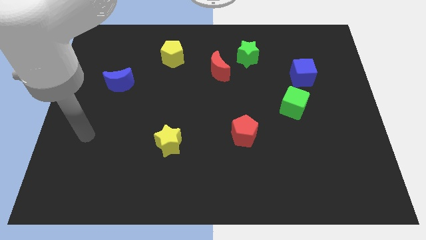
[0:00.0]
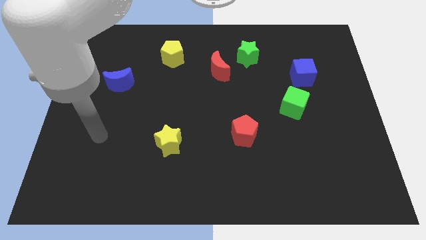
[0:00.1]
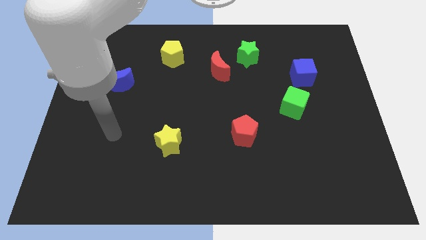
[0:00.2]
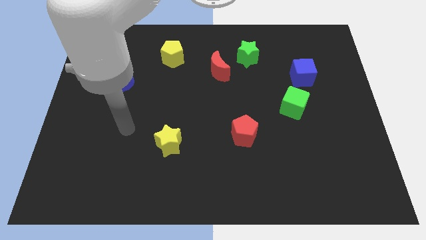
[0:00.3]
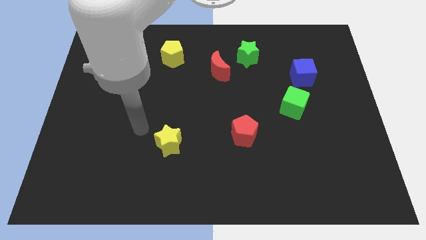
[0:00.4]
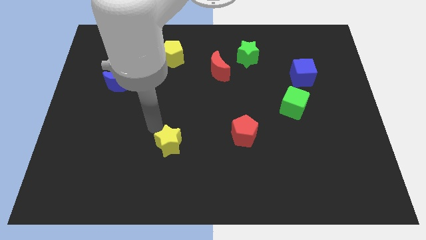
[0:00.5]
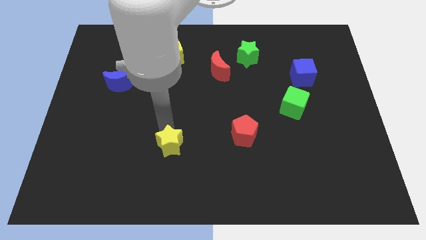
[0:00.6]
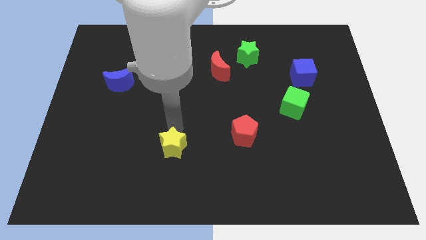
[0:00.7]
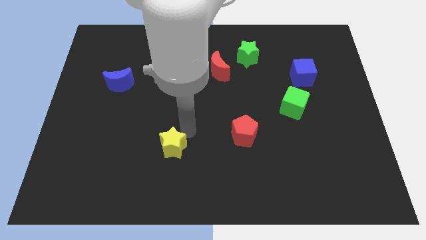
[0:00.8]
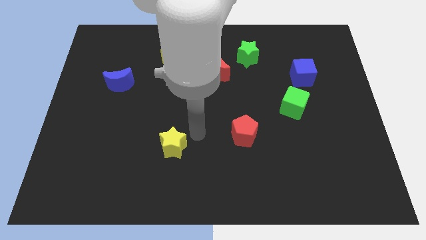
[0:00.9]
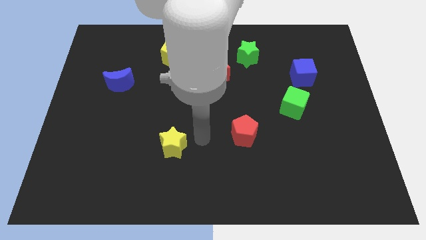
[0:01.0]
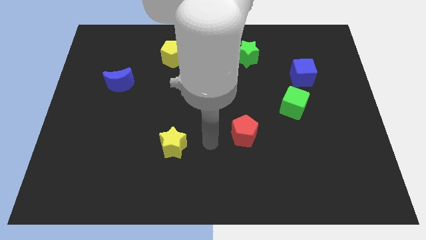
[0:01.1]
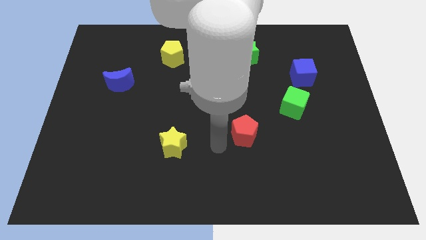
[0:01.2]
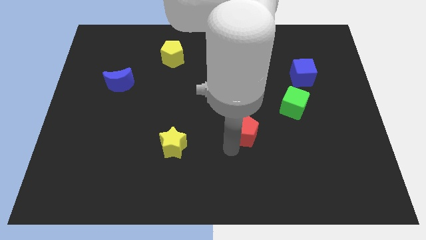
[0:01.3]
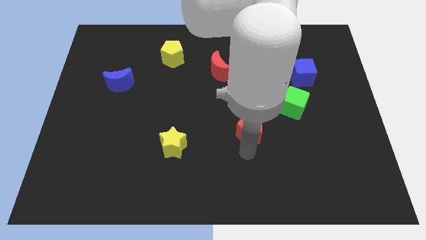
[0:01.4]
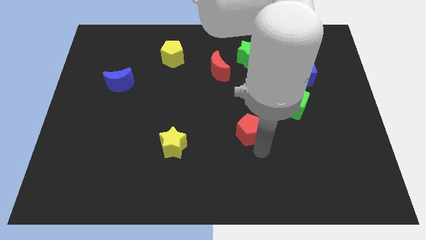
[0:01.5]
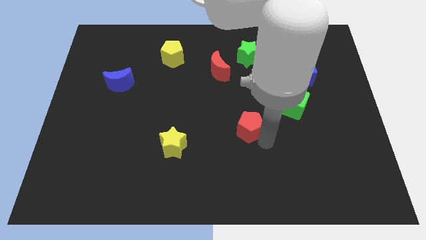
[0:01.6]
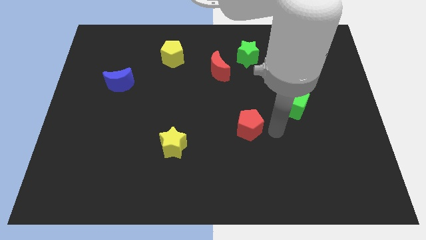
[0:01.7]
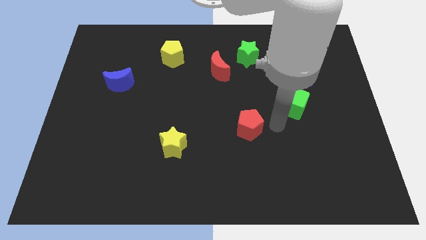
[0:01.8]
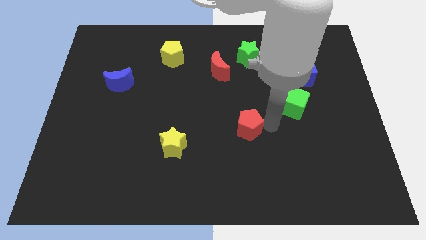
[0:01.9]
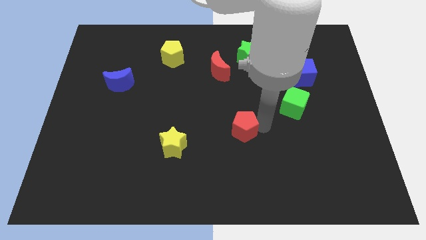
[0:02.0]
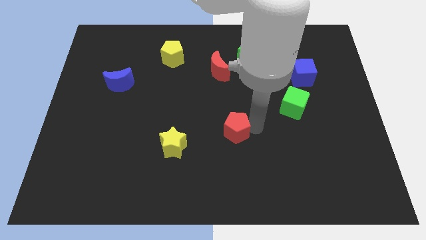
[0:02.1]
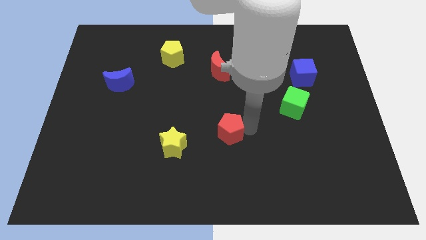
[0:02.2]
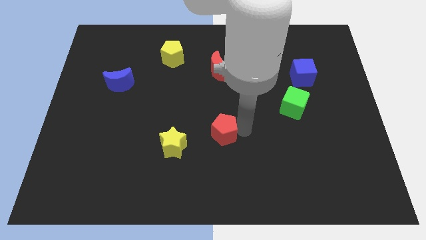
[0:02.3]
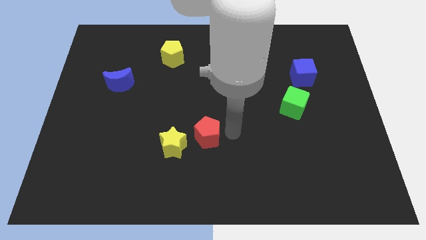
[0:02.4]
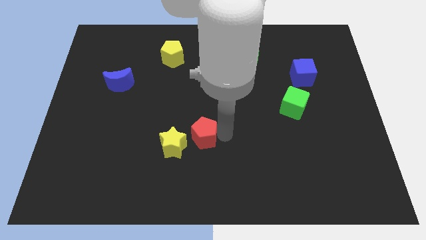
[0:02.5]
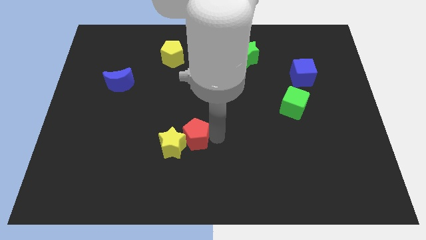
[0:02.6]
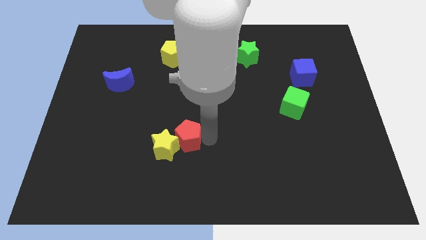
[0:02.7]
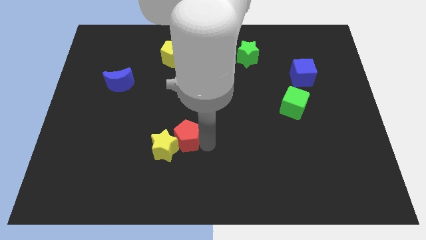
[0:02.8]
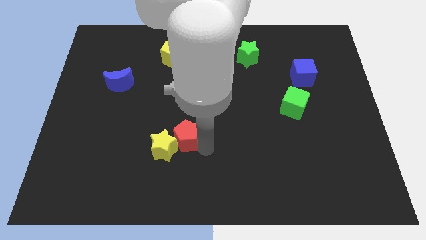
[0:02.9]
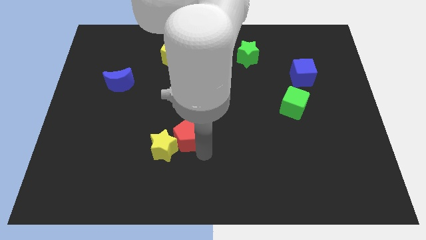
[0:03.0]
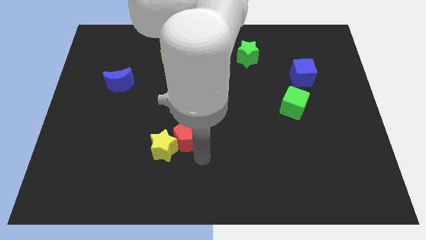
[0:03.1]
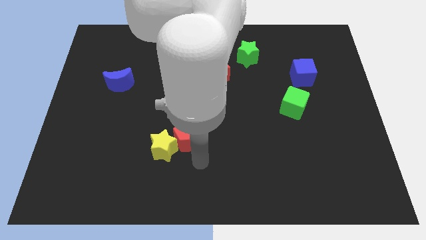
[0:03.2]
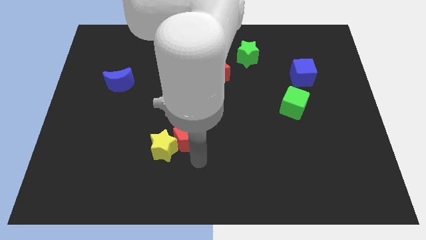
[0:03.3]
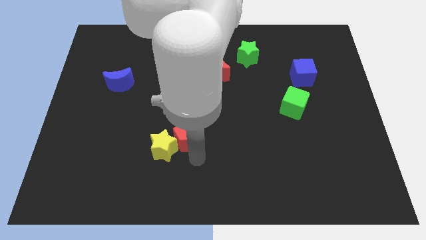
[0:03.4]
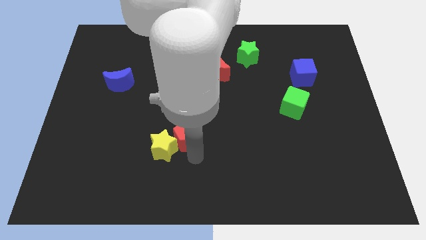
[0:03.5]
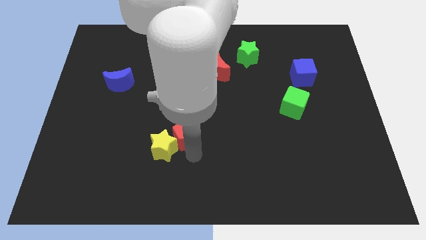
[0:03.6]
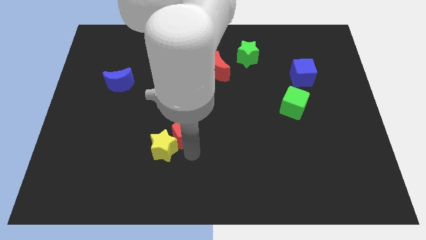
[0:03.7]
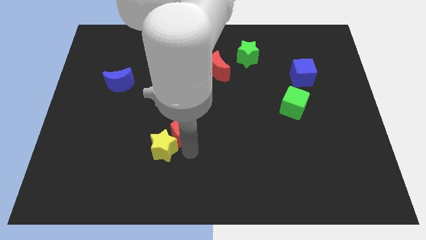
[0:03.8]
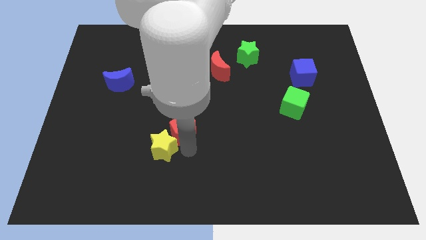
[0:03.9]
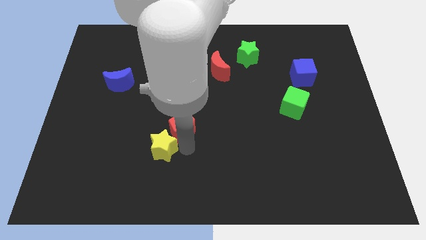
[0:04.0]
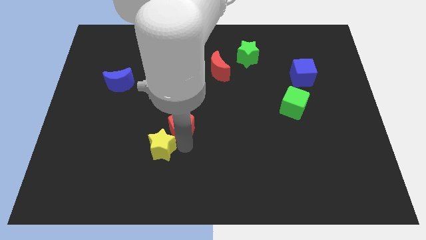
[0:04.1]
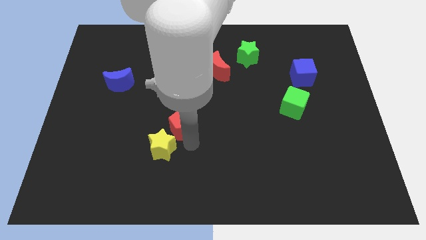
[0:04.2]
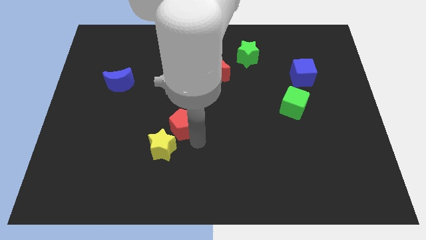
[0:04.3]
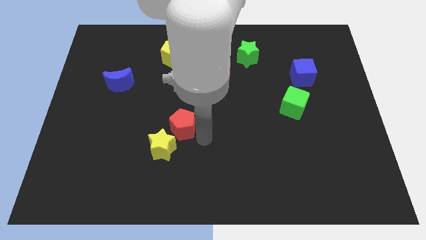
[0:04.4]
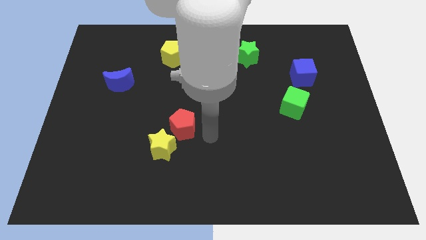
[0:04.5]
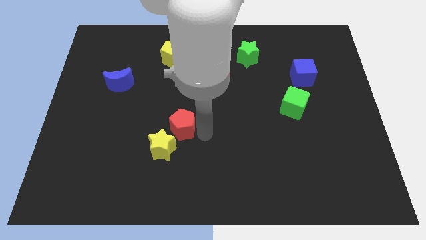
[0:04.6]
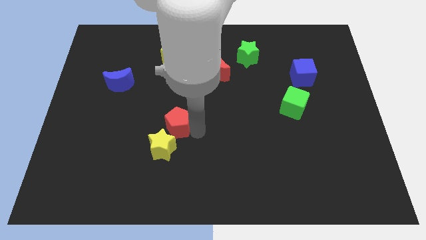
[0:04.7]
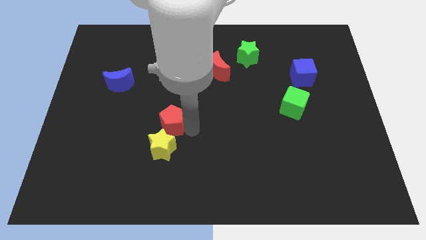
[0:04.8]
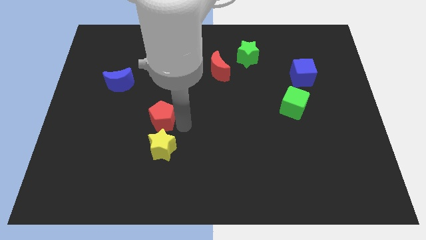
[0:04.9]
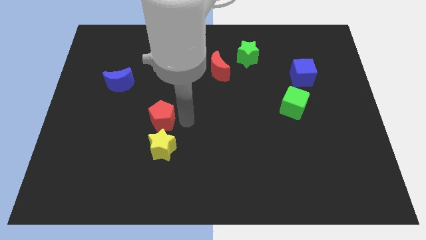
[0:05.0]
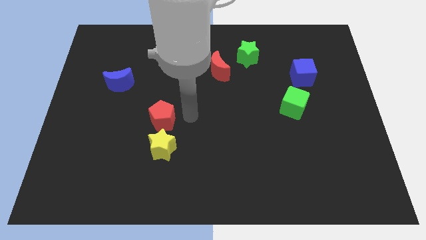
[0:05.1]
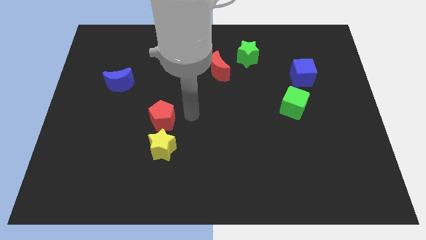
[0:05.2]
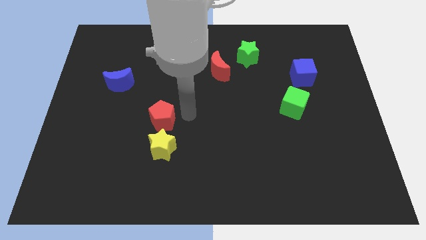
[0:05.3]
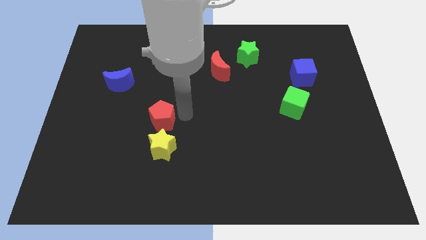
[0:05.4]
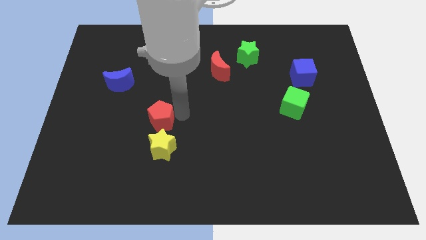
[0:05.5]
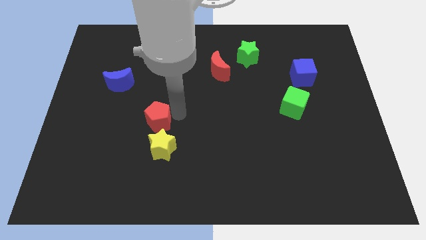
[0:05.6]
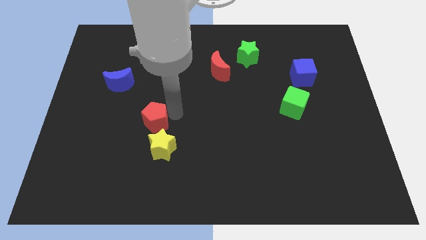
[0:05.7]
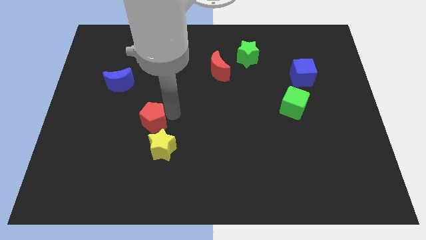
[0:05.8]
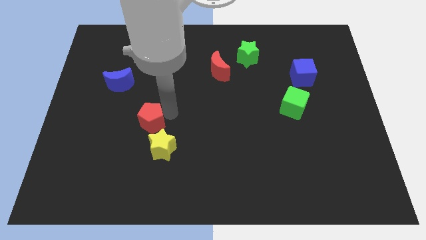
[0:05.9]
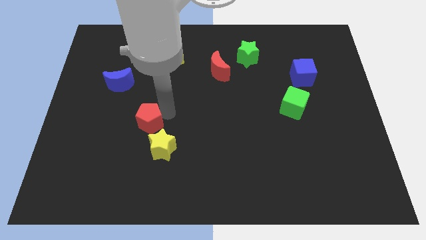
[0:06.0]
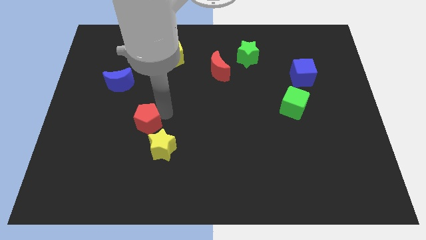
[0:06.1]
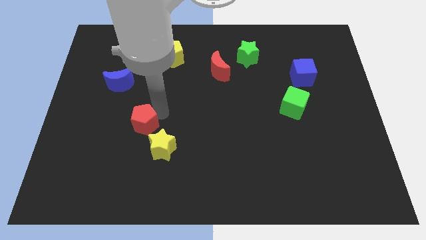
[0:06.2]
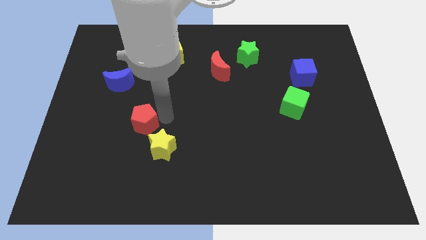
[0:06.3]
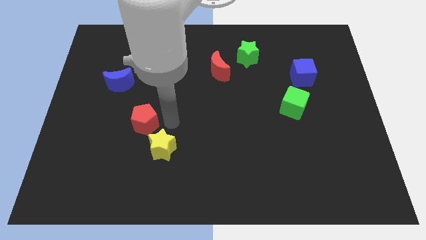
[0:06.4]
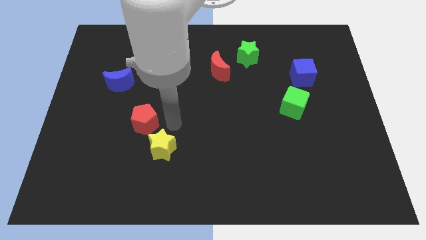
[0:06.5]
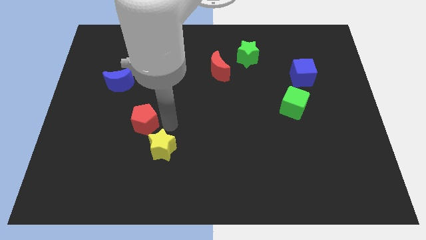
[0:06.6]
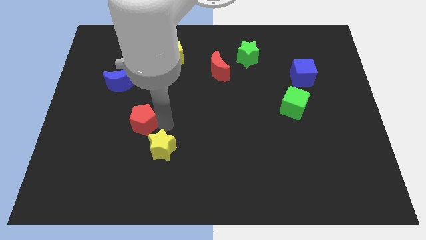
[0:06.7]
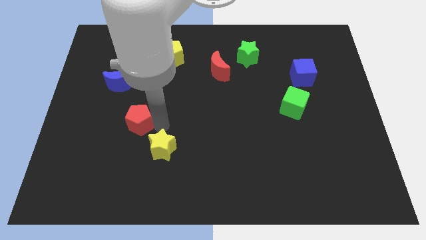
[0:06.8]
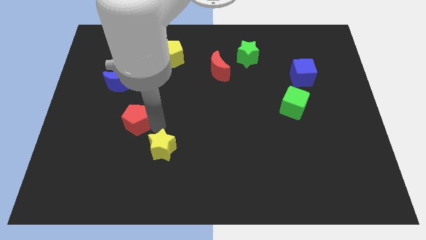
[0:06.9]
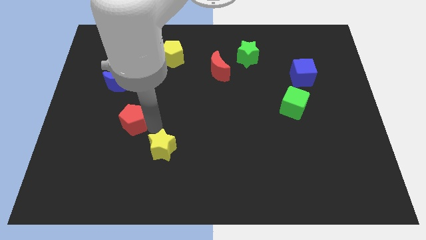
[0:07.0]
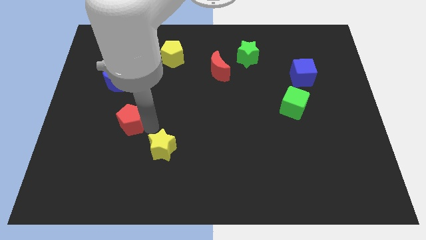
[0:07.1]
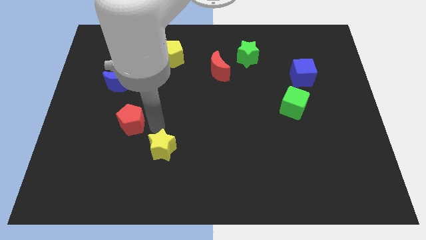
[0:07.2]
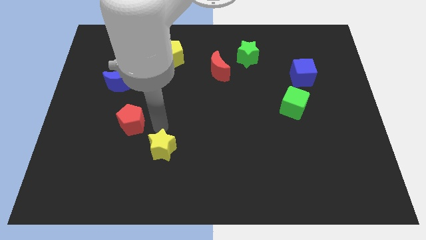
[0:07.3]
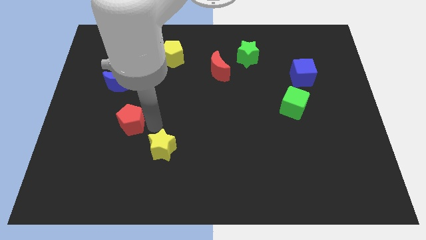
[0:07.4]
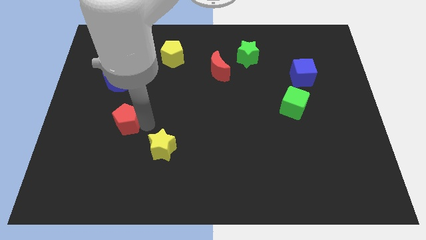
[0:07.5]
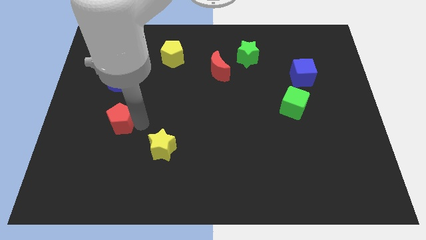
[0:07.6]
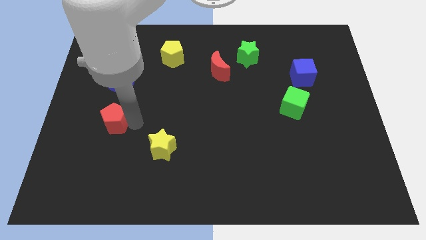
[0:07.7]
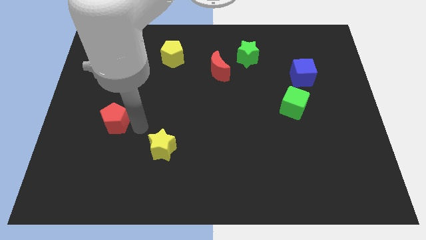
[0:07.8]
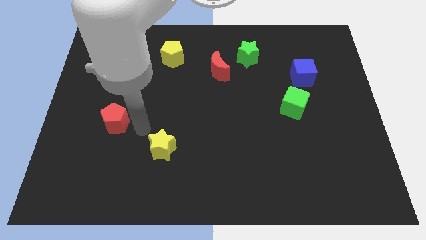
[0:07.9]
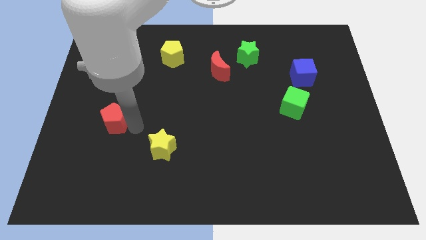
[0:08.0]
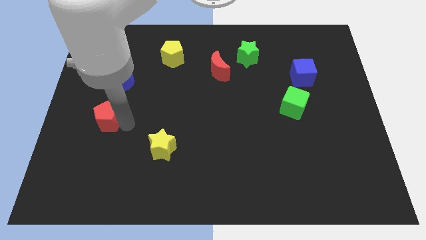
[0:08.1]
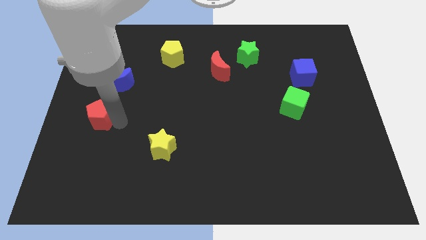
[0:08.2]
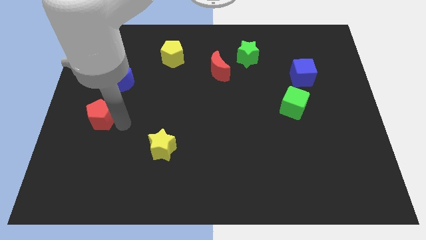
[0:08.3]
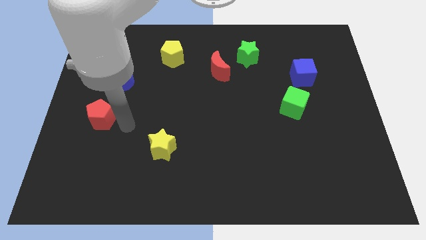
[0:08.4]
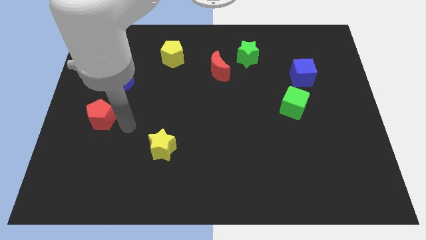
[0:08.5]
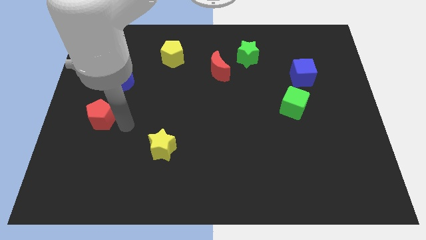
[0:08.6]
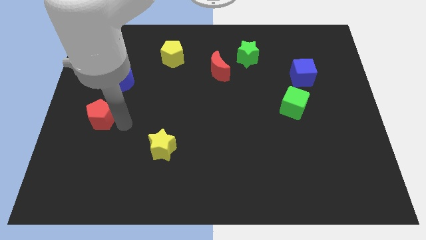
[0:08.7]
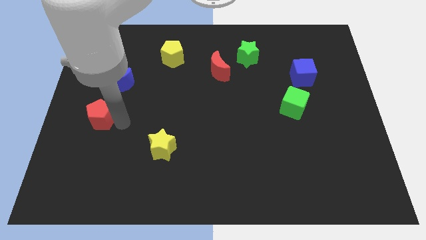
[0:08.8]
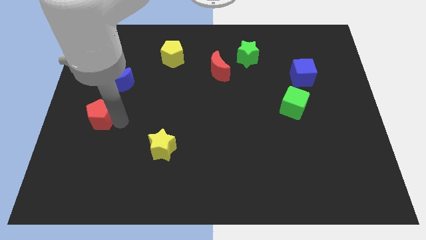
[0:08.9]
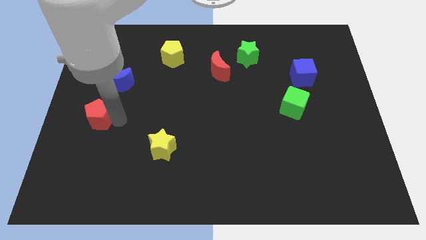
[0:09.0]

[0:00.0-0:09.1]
slide the red pentagon to the center left
